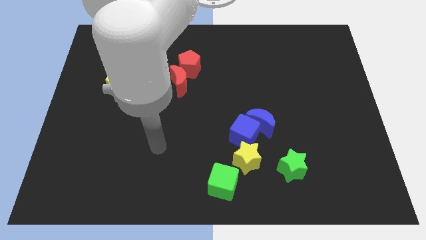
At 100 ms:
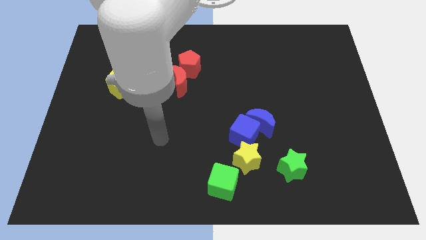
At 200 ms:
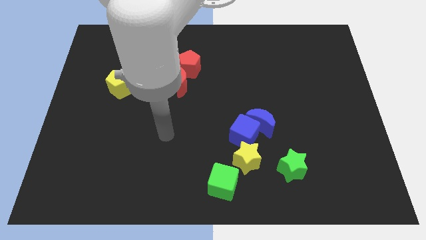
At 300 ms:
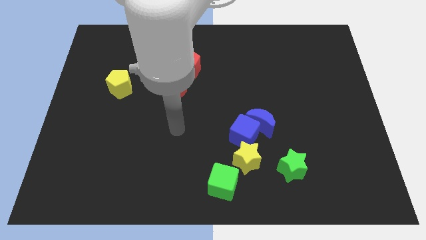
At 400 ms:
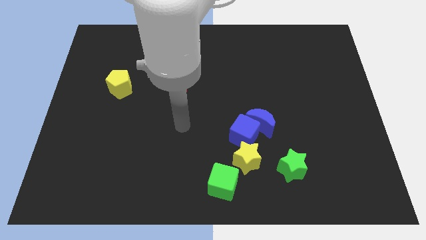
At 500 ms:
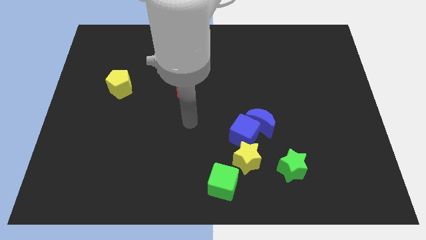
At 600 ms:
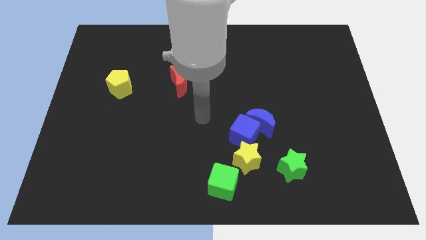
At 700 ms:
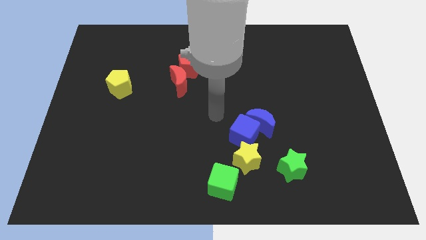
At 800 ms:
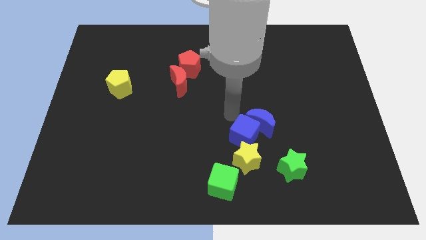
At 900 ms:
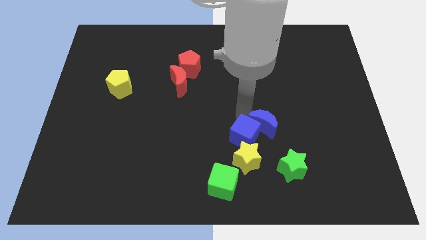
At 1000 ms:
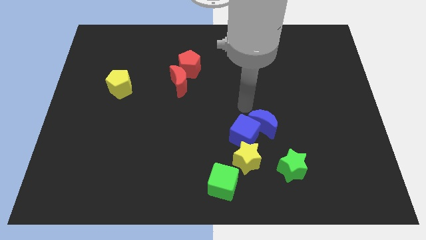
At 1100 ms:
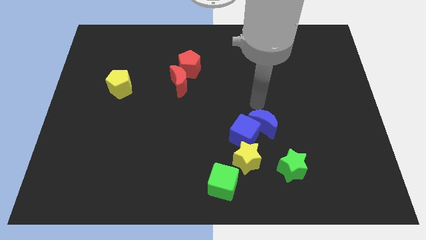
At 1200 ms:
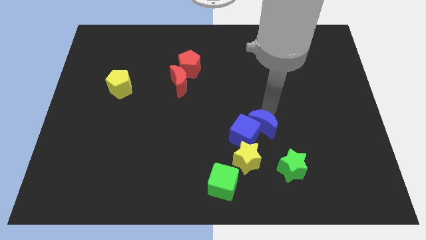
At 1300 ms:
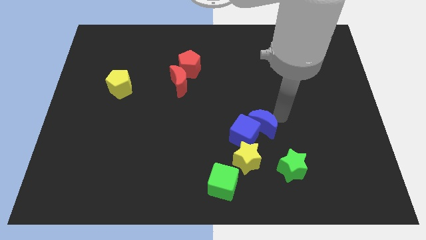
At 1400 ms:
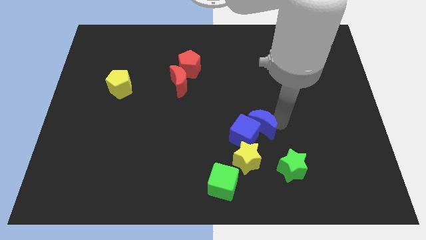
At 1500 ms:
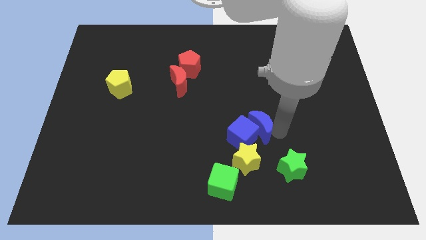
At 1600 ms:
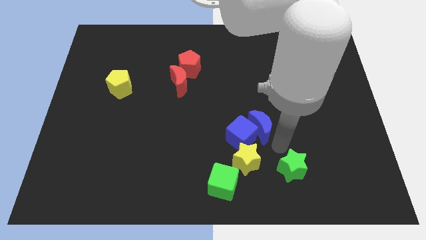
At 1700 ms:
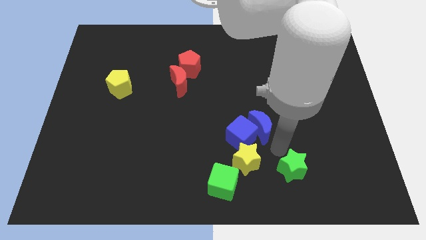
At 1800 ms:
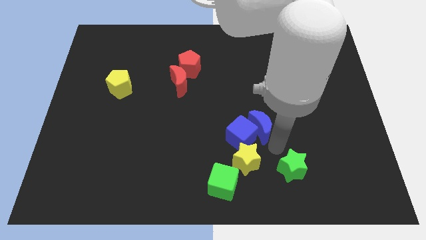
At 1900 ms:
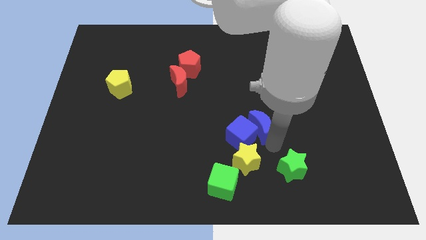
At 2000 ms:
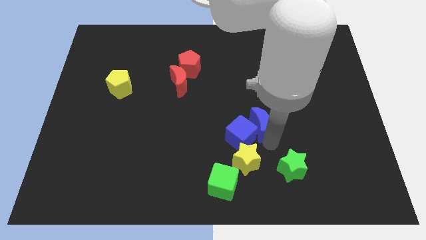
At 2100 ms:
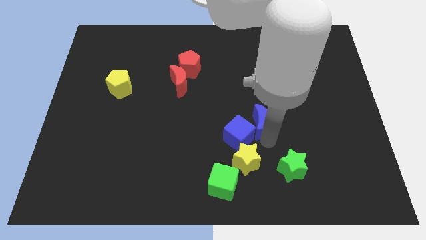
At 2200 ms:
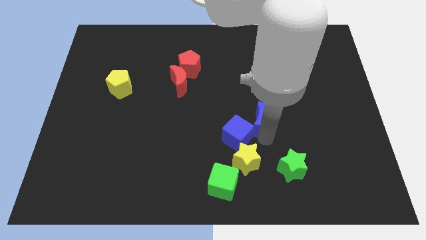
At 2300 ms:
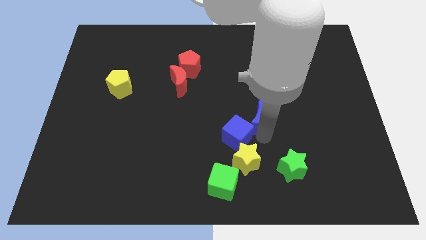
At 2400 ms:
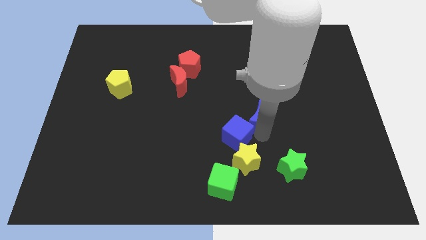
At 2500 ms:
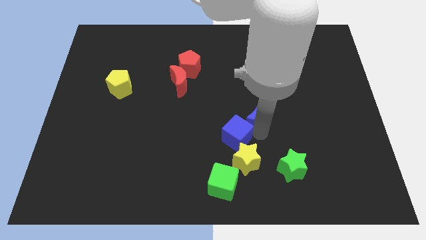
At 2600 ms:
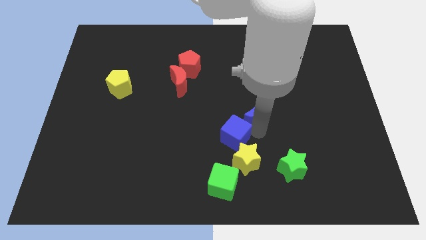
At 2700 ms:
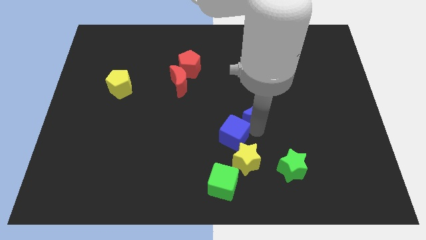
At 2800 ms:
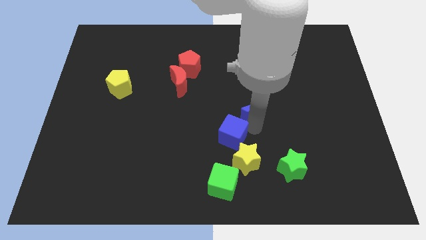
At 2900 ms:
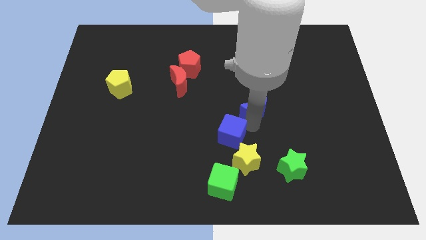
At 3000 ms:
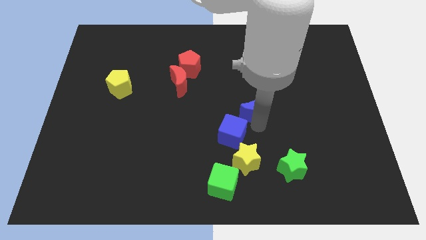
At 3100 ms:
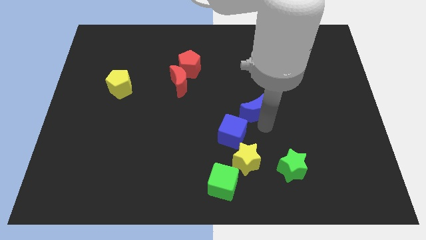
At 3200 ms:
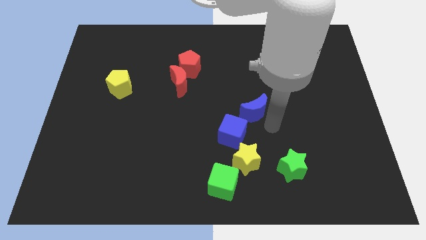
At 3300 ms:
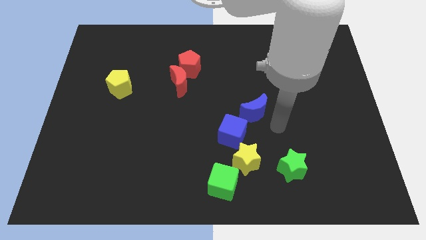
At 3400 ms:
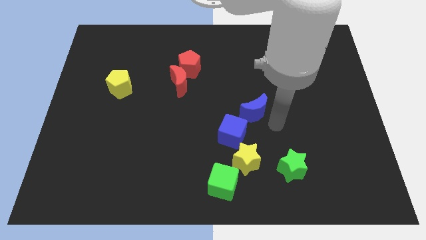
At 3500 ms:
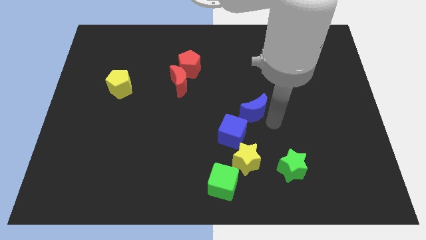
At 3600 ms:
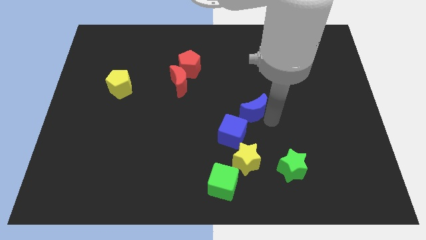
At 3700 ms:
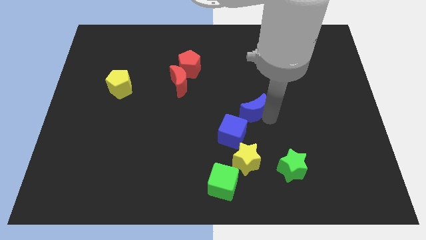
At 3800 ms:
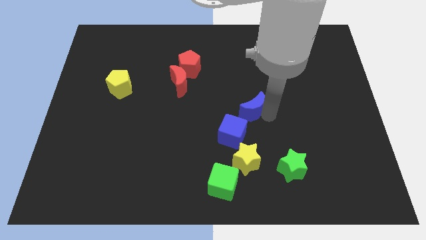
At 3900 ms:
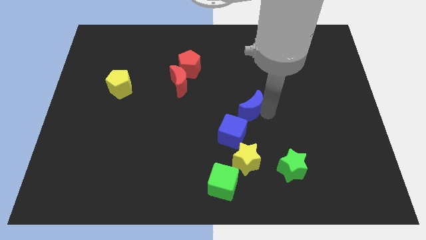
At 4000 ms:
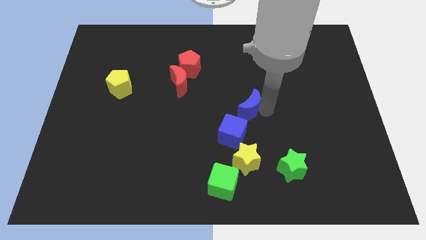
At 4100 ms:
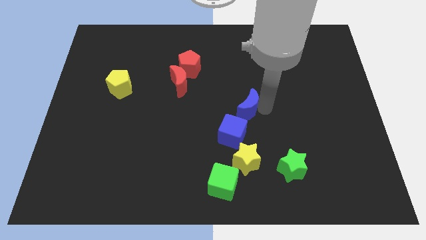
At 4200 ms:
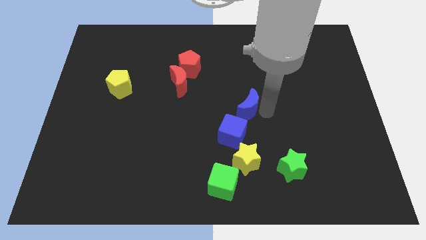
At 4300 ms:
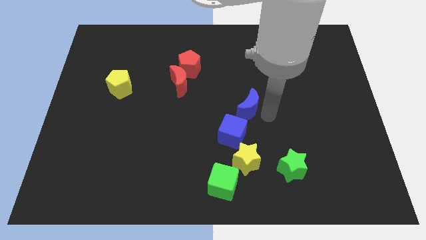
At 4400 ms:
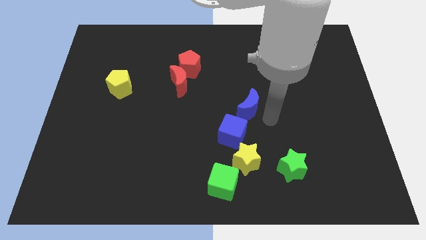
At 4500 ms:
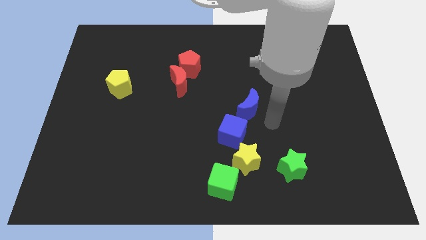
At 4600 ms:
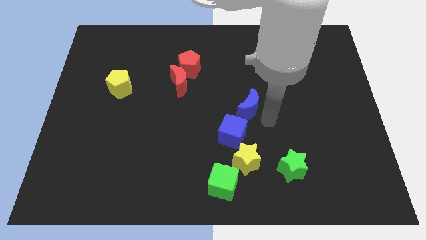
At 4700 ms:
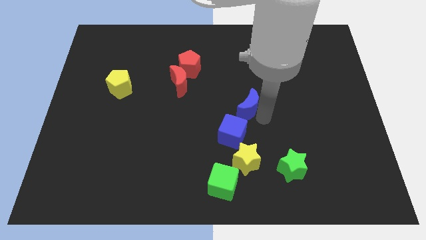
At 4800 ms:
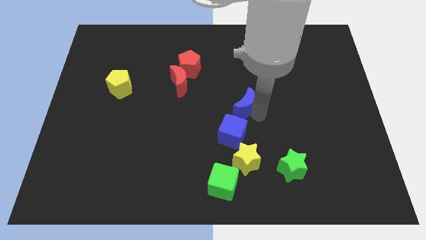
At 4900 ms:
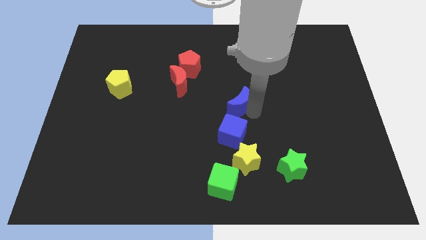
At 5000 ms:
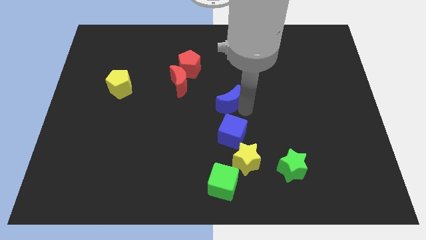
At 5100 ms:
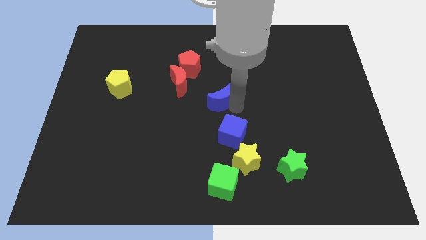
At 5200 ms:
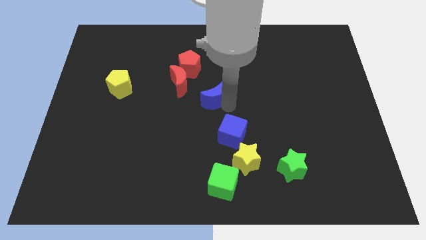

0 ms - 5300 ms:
slide the blue moon diagonally down and to the right of the red pentagon

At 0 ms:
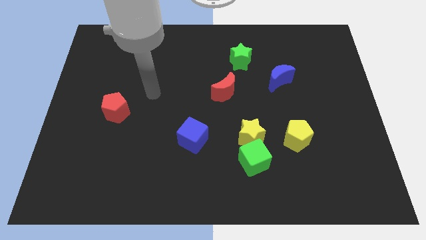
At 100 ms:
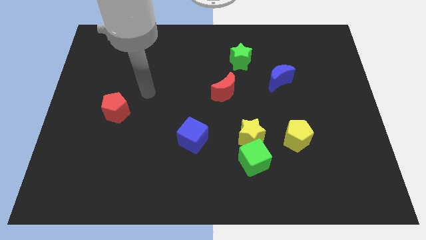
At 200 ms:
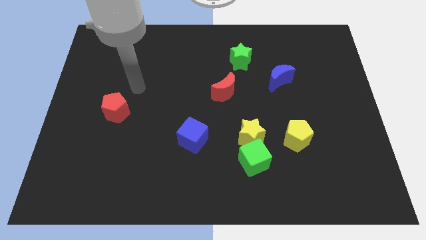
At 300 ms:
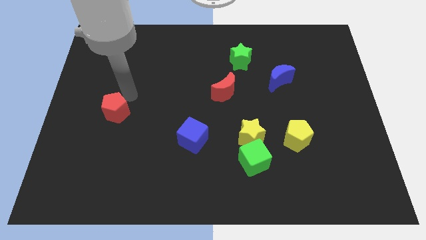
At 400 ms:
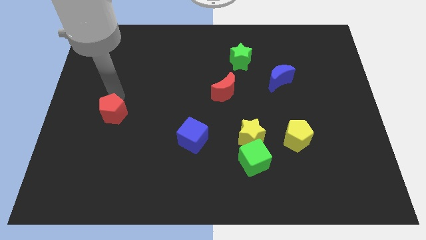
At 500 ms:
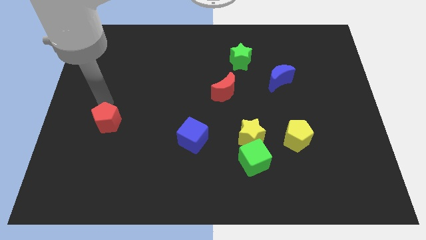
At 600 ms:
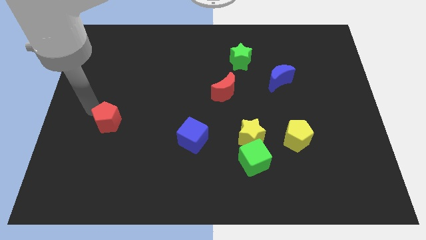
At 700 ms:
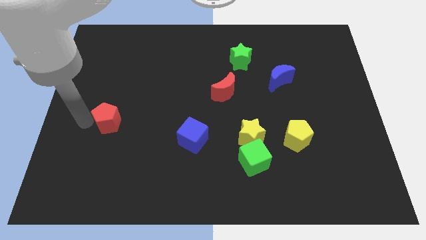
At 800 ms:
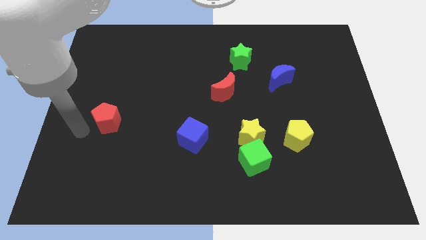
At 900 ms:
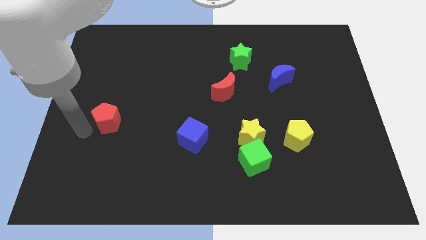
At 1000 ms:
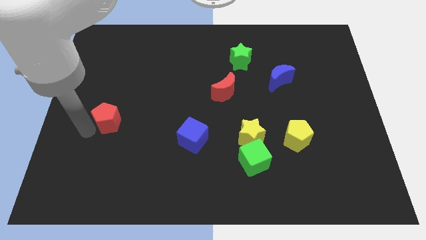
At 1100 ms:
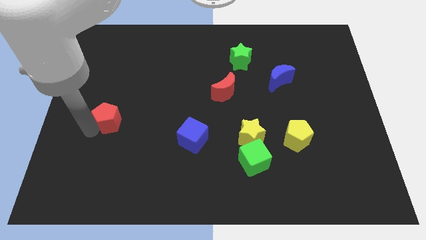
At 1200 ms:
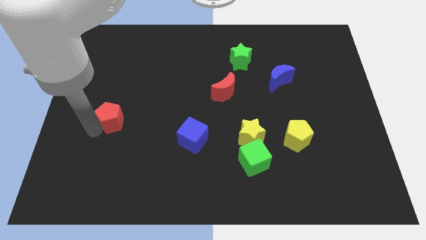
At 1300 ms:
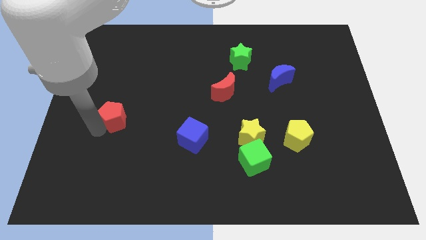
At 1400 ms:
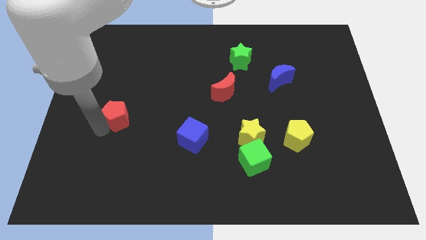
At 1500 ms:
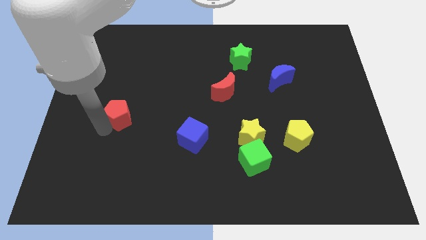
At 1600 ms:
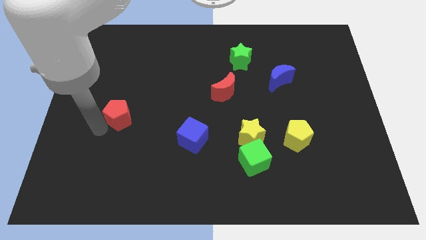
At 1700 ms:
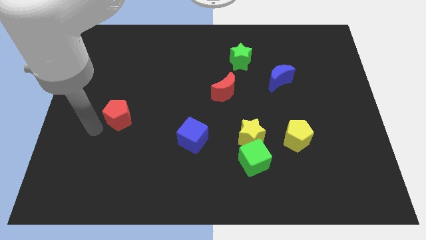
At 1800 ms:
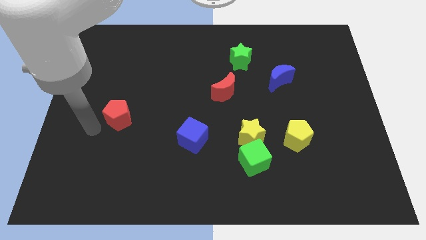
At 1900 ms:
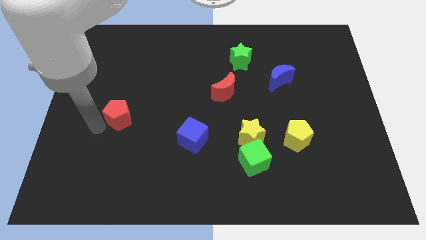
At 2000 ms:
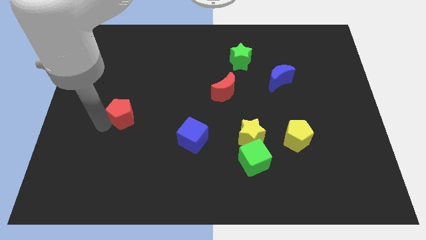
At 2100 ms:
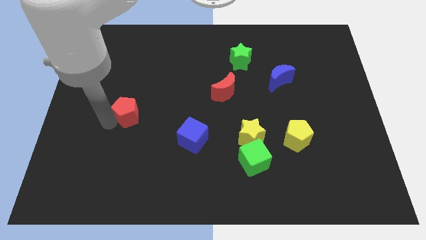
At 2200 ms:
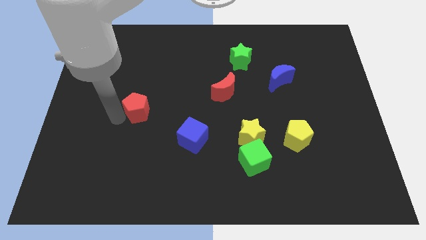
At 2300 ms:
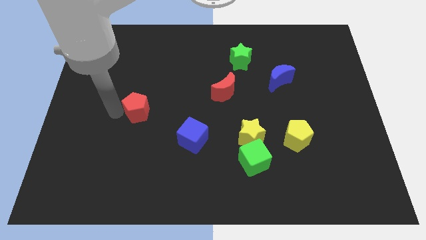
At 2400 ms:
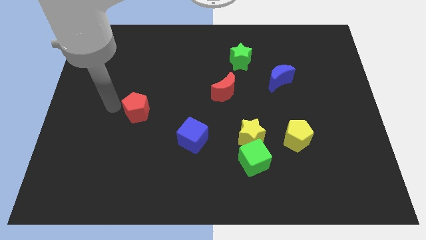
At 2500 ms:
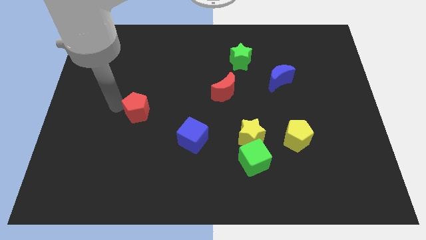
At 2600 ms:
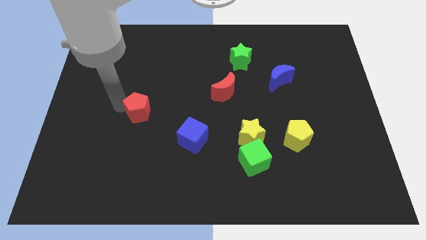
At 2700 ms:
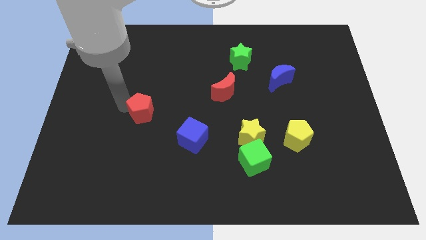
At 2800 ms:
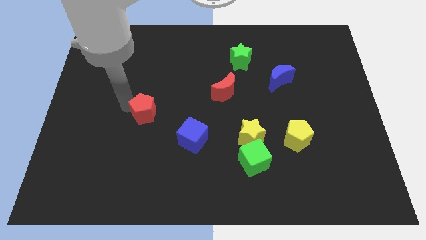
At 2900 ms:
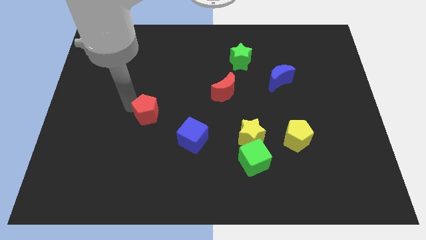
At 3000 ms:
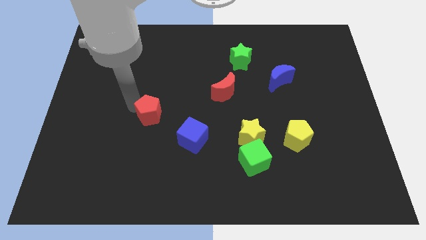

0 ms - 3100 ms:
push the red pentagon to the top left of the blue cube
